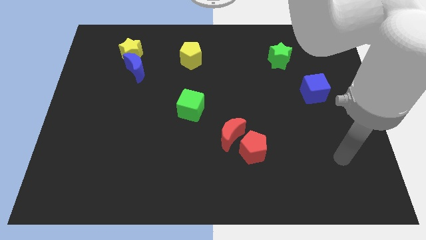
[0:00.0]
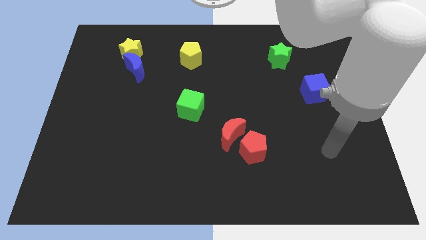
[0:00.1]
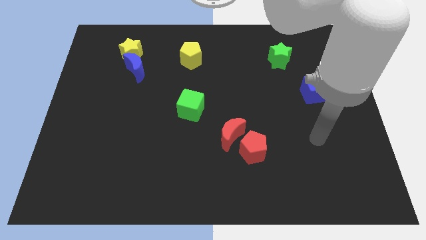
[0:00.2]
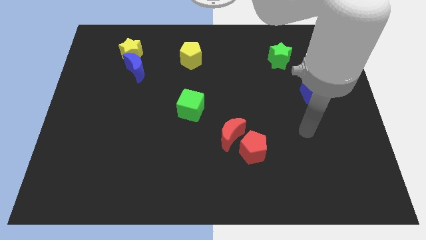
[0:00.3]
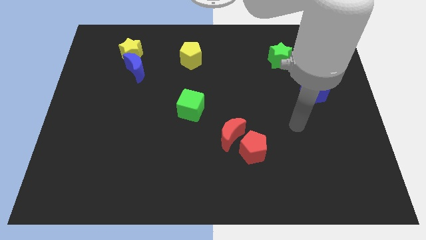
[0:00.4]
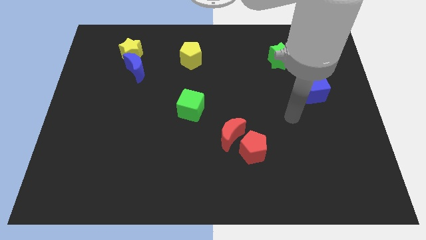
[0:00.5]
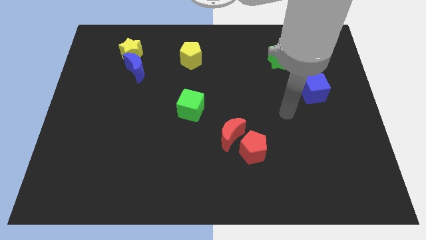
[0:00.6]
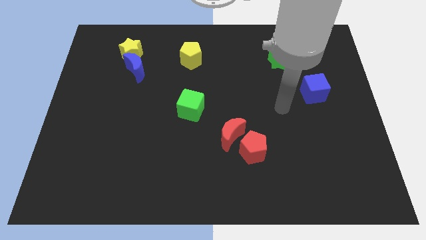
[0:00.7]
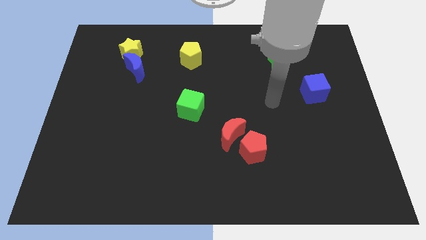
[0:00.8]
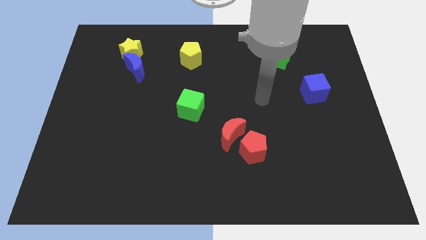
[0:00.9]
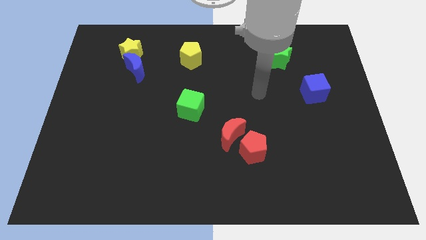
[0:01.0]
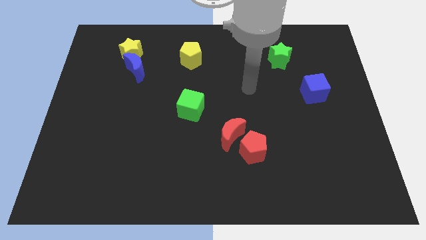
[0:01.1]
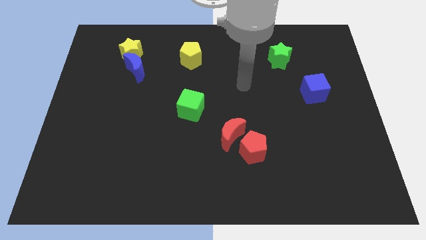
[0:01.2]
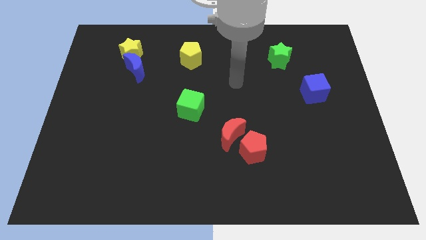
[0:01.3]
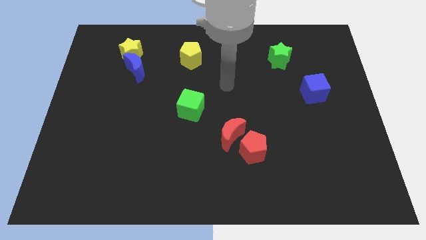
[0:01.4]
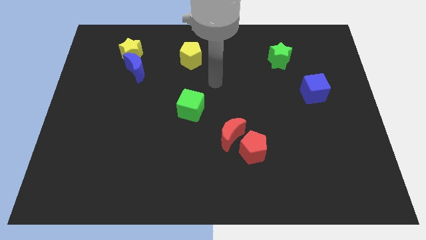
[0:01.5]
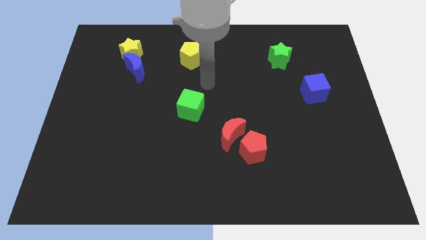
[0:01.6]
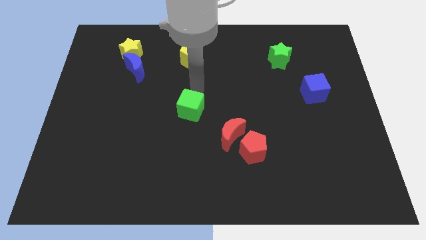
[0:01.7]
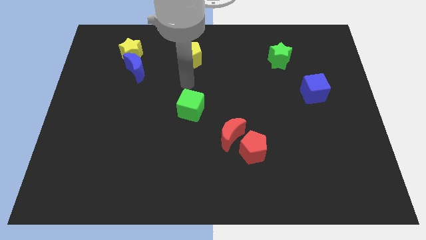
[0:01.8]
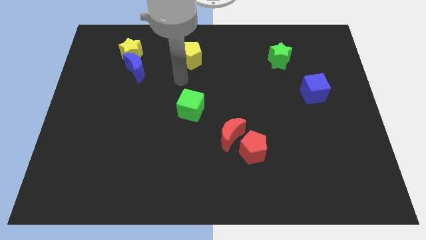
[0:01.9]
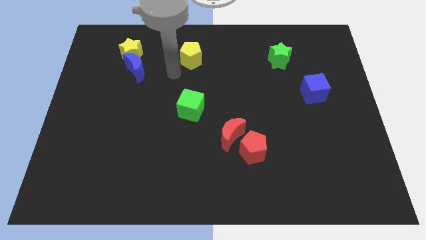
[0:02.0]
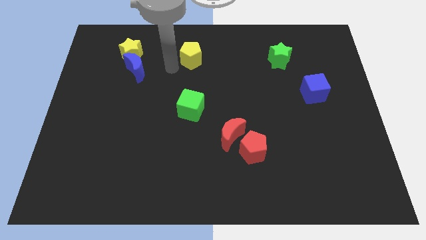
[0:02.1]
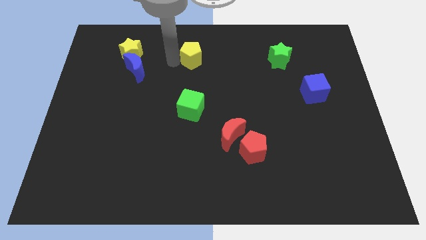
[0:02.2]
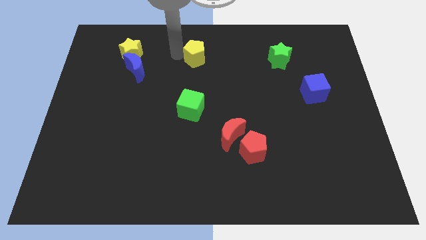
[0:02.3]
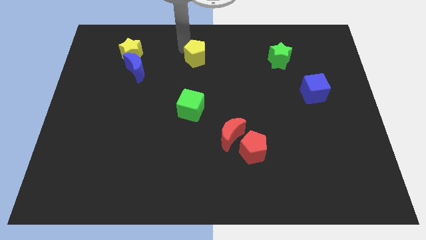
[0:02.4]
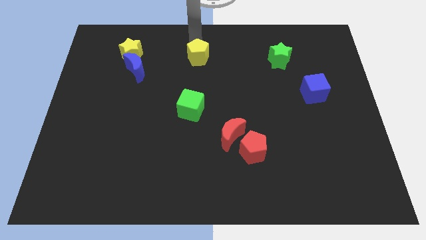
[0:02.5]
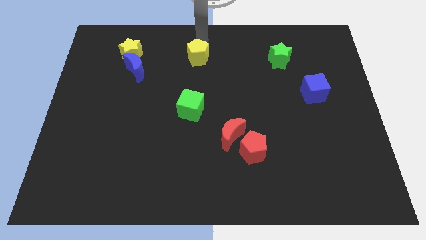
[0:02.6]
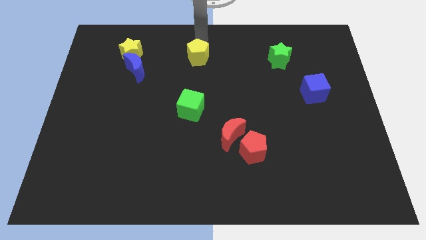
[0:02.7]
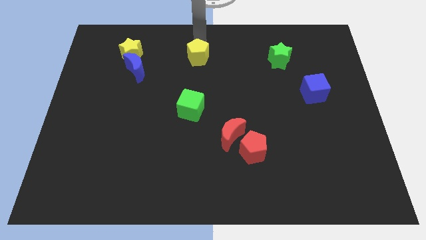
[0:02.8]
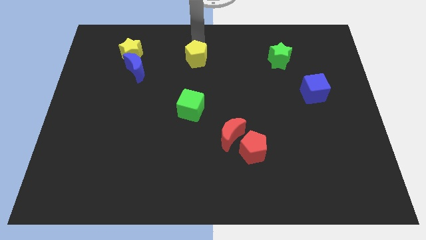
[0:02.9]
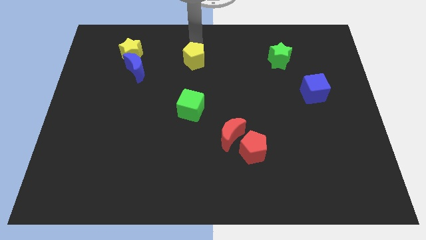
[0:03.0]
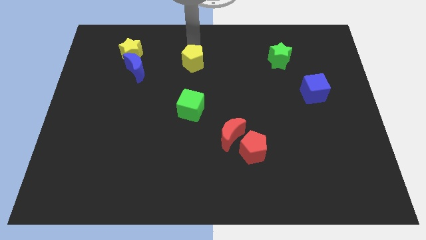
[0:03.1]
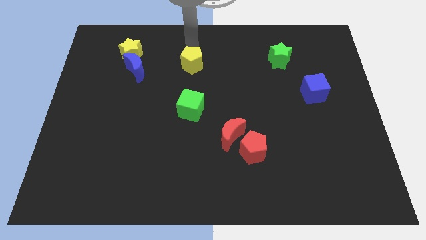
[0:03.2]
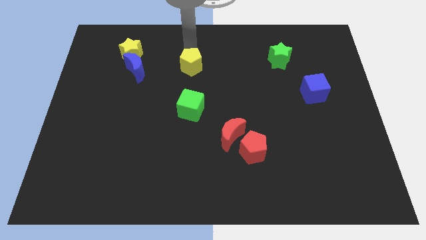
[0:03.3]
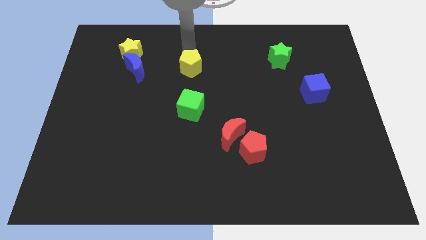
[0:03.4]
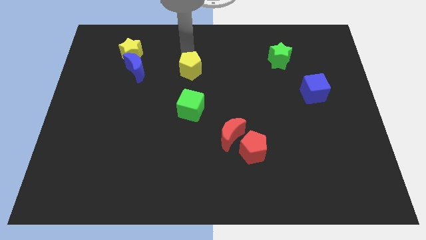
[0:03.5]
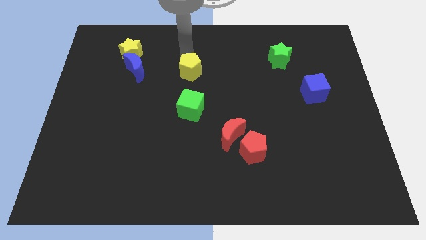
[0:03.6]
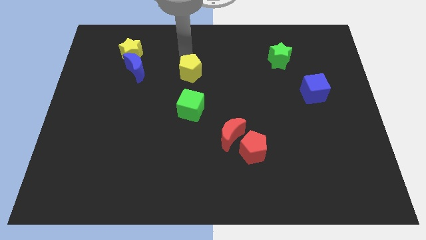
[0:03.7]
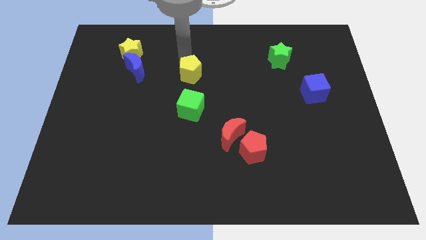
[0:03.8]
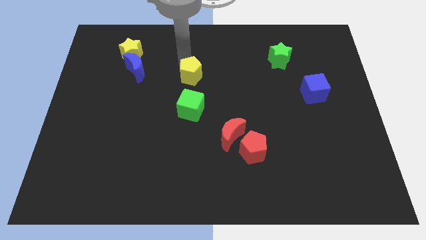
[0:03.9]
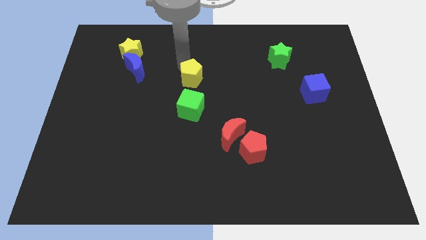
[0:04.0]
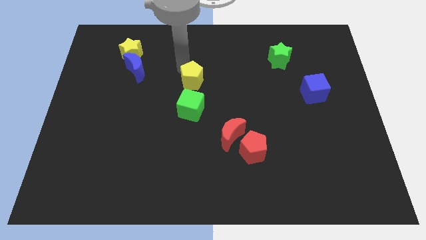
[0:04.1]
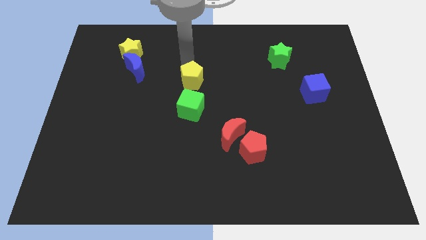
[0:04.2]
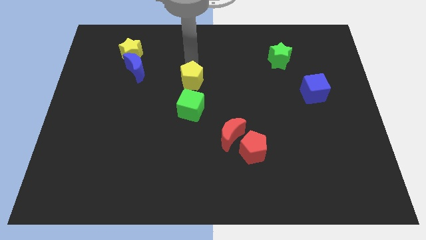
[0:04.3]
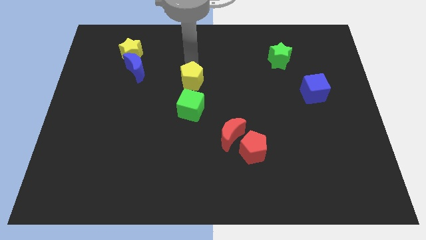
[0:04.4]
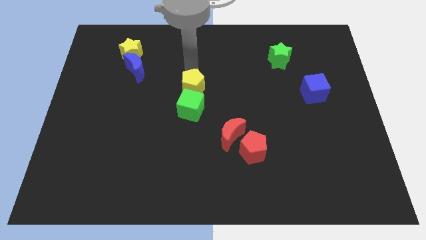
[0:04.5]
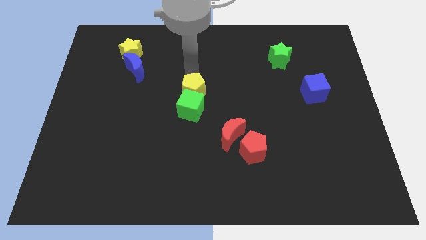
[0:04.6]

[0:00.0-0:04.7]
push the yellow pentagon towards the green cube

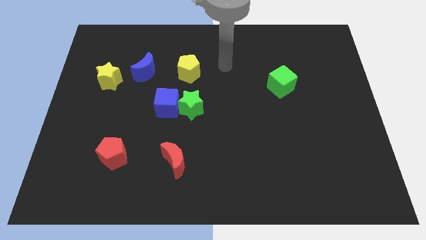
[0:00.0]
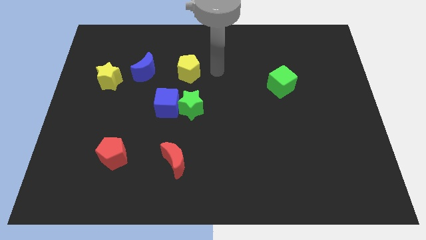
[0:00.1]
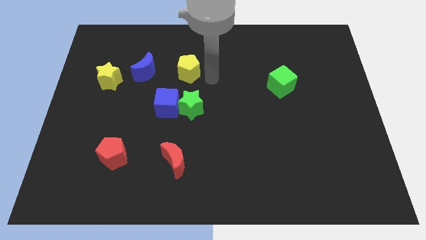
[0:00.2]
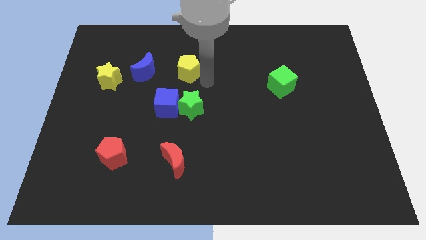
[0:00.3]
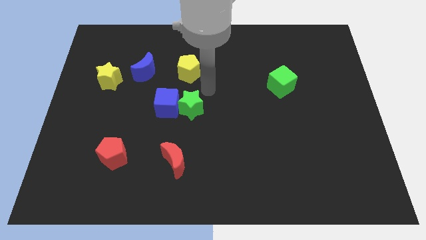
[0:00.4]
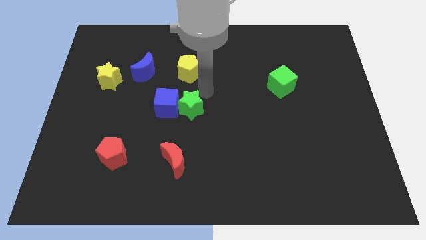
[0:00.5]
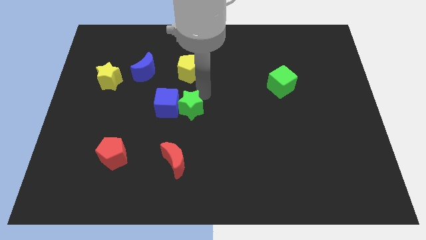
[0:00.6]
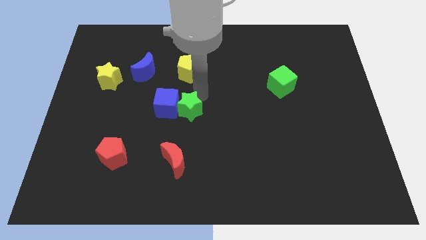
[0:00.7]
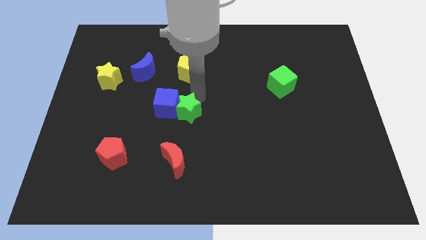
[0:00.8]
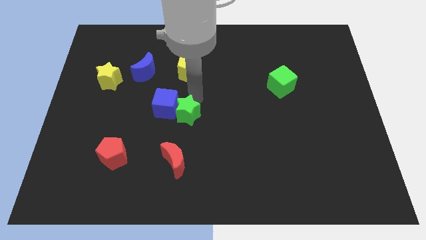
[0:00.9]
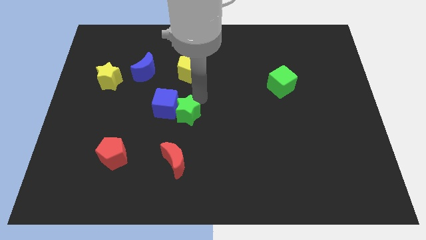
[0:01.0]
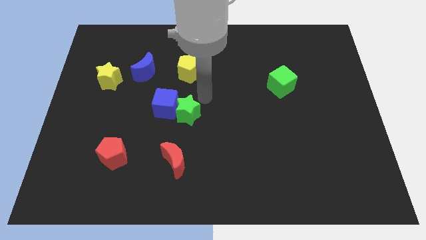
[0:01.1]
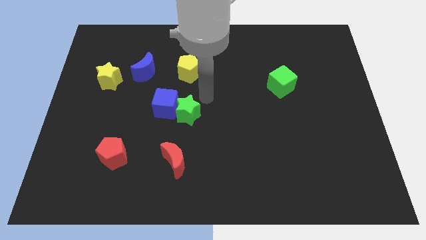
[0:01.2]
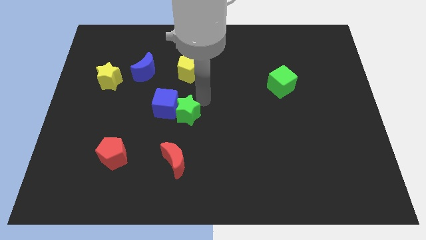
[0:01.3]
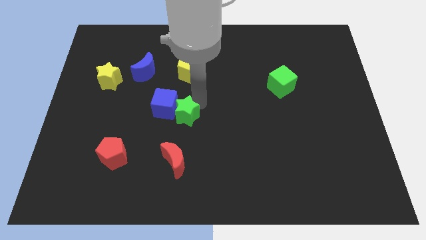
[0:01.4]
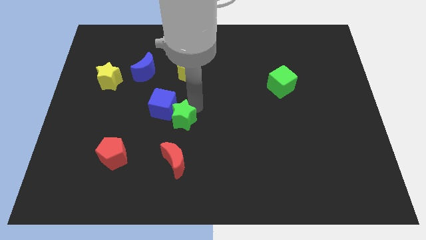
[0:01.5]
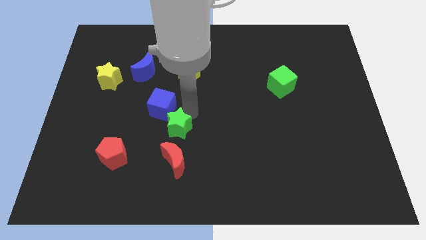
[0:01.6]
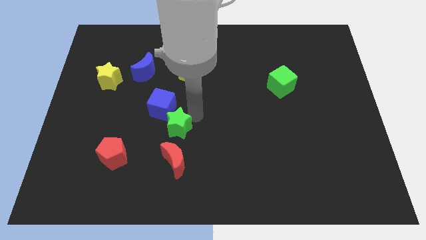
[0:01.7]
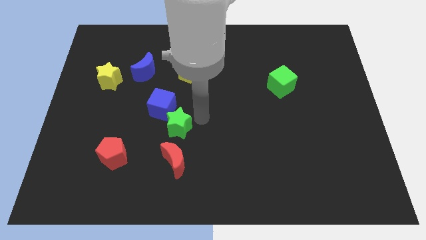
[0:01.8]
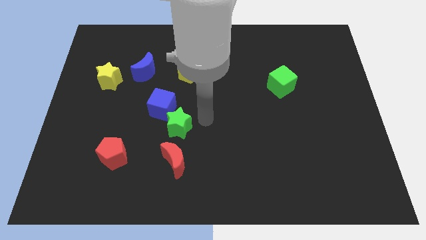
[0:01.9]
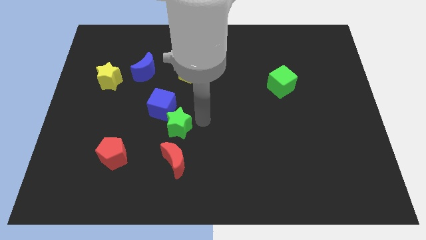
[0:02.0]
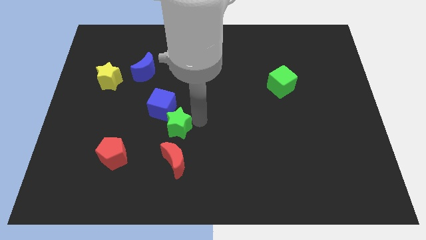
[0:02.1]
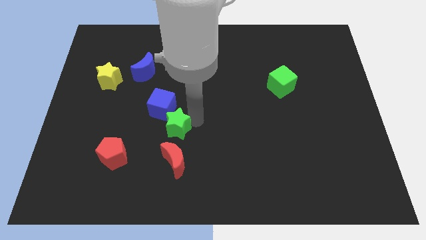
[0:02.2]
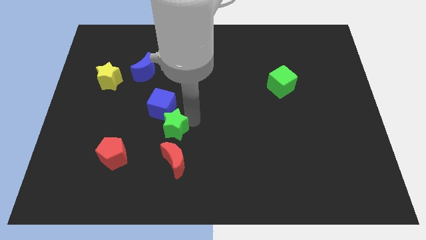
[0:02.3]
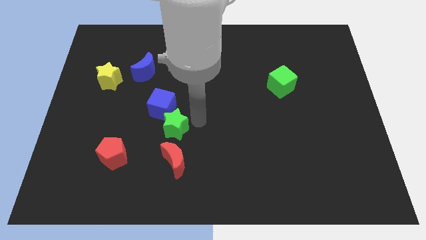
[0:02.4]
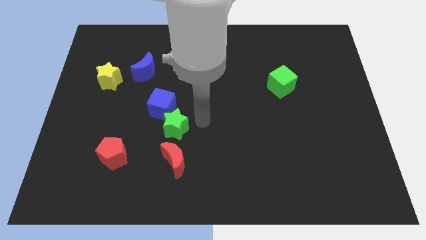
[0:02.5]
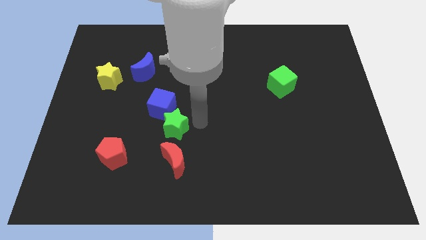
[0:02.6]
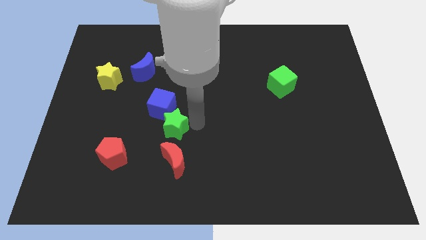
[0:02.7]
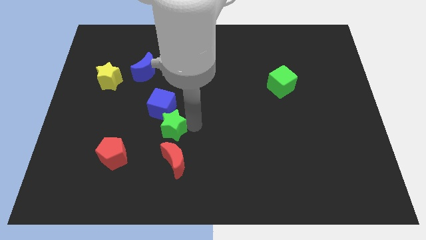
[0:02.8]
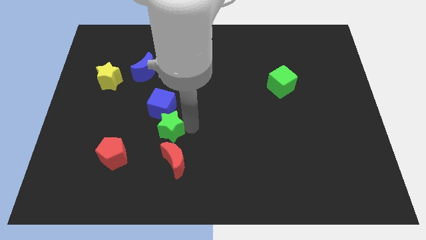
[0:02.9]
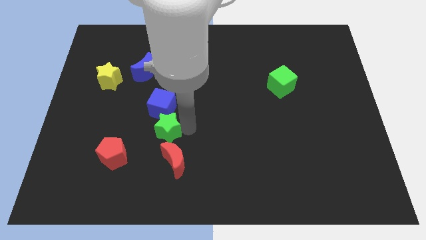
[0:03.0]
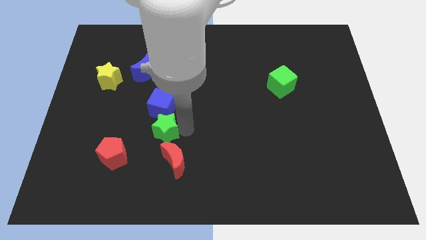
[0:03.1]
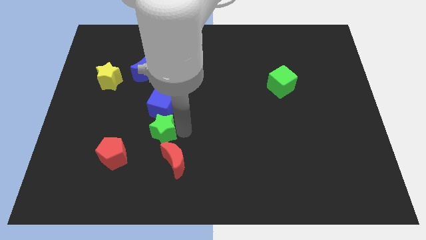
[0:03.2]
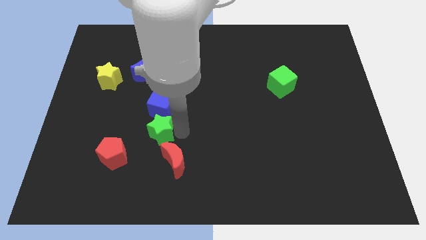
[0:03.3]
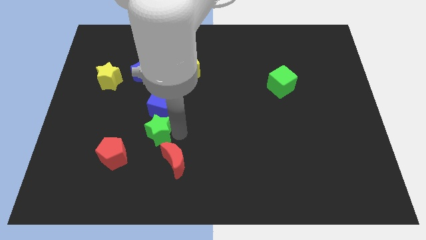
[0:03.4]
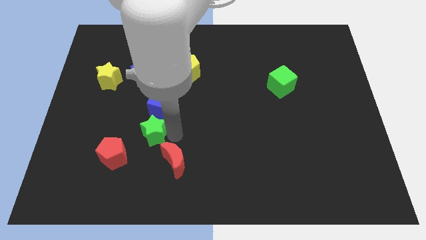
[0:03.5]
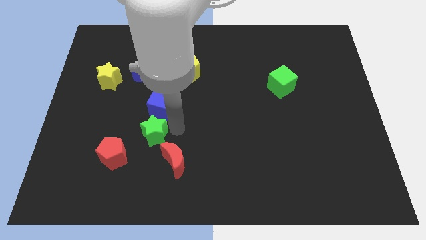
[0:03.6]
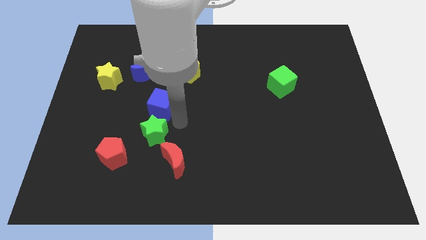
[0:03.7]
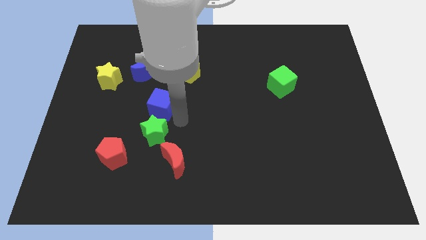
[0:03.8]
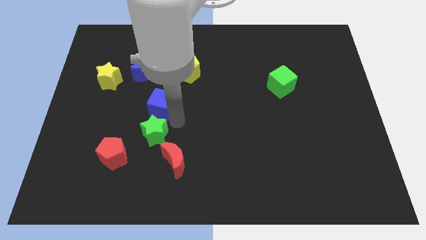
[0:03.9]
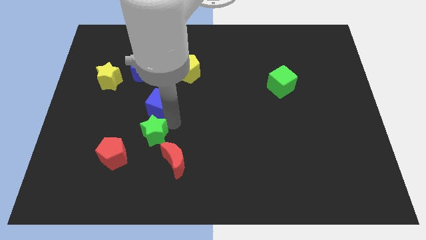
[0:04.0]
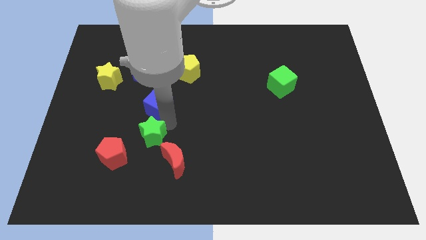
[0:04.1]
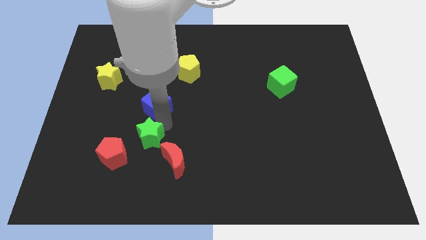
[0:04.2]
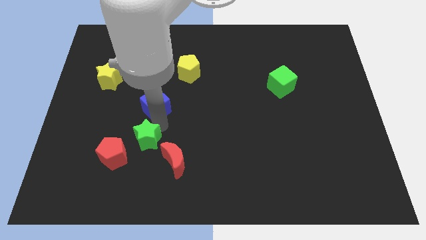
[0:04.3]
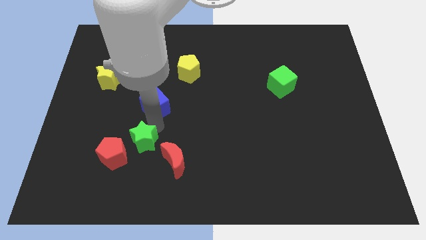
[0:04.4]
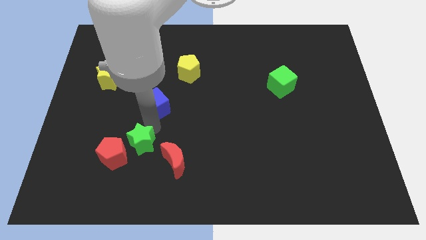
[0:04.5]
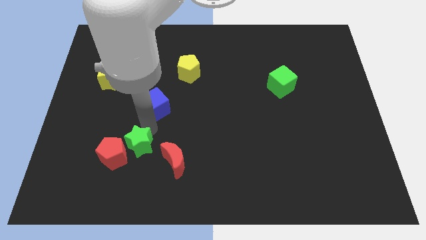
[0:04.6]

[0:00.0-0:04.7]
put the green star next to the red pentagon
